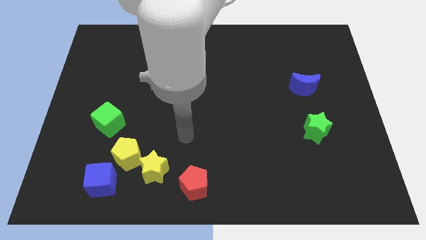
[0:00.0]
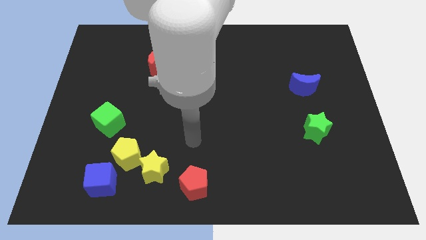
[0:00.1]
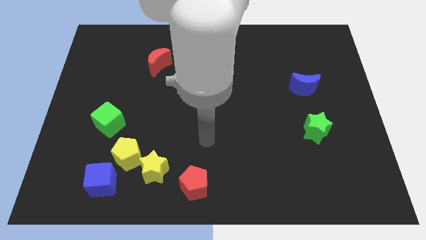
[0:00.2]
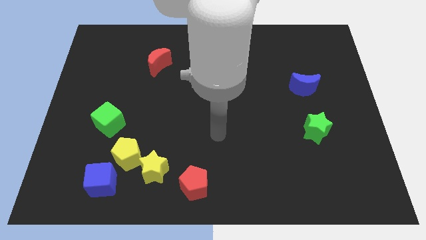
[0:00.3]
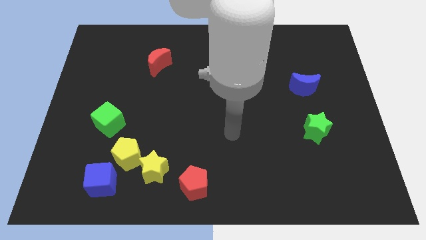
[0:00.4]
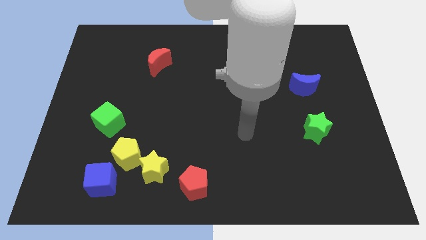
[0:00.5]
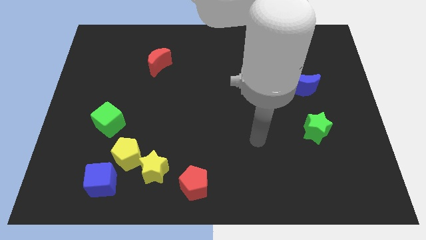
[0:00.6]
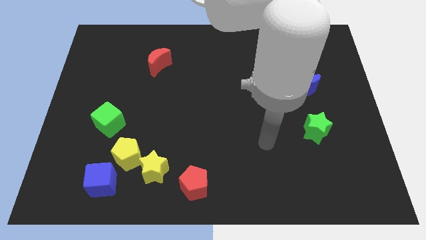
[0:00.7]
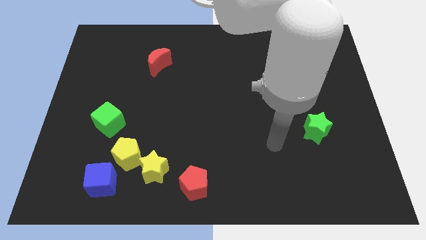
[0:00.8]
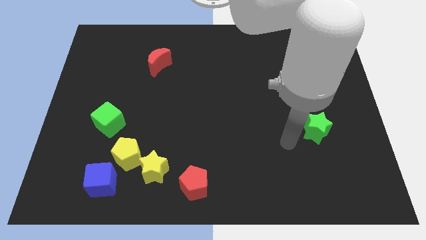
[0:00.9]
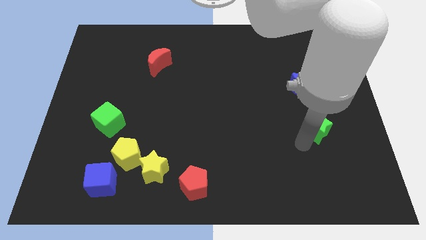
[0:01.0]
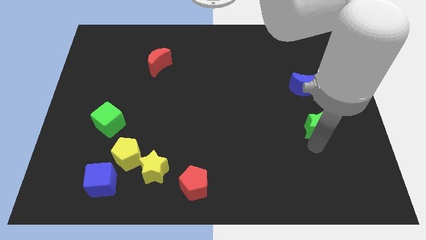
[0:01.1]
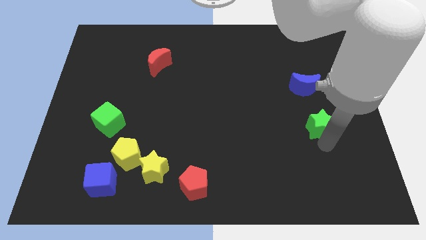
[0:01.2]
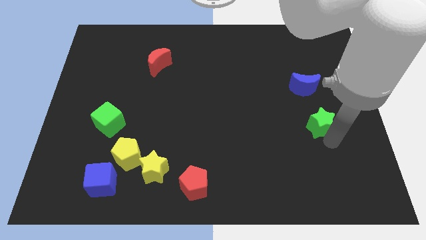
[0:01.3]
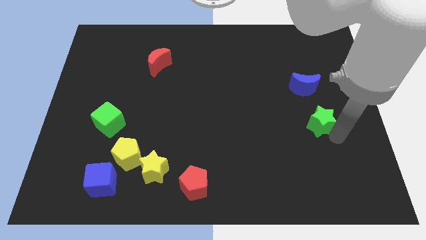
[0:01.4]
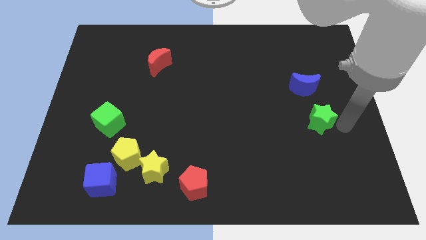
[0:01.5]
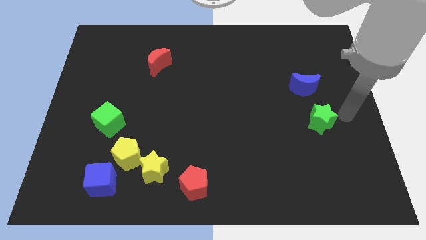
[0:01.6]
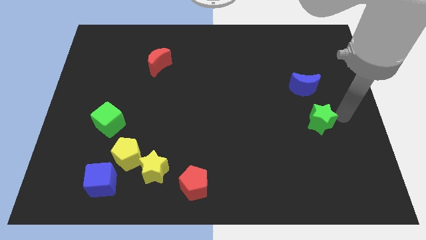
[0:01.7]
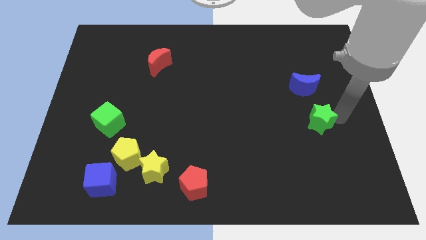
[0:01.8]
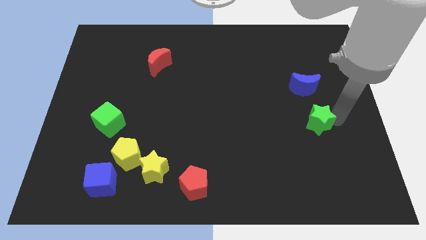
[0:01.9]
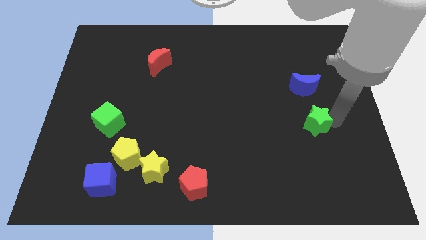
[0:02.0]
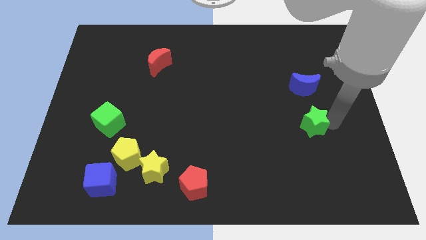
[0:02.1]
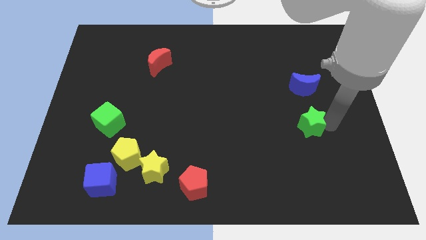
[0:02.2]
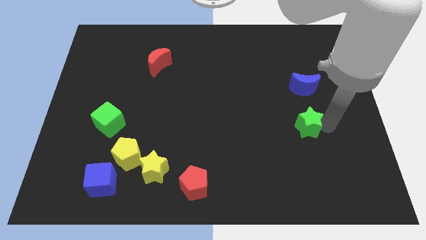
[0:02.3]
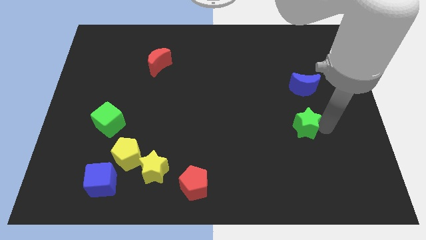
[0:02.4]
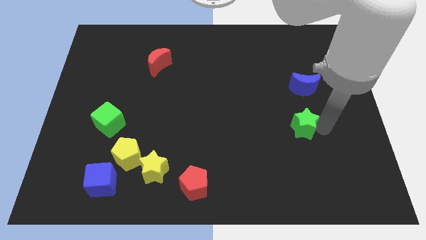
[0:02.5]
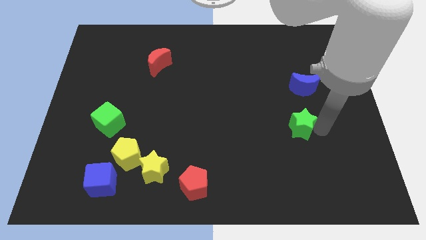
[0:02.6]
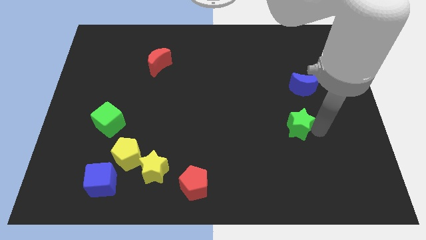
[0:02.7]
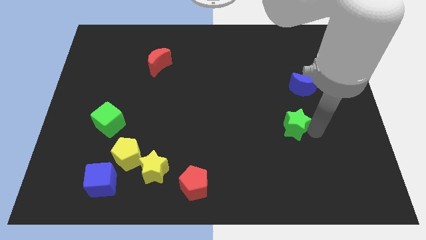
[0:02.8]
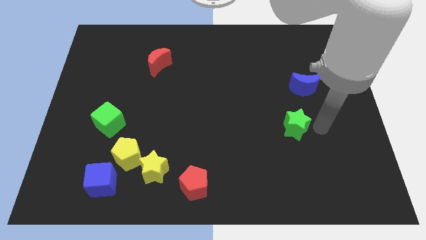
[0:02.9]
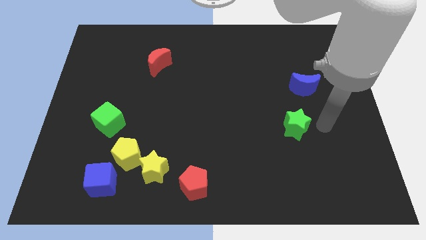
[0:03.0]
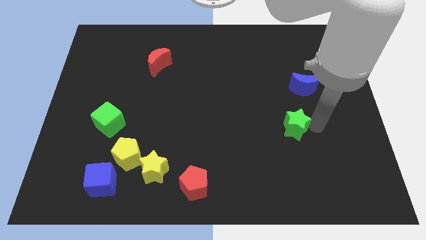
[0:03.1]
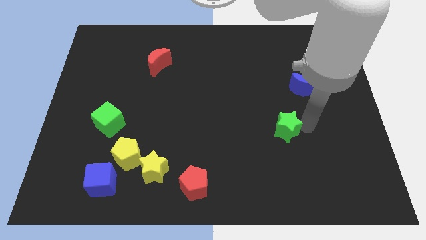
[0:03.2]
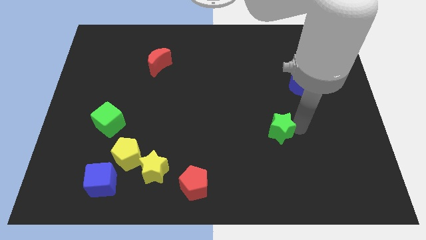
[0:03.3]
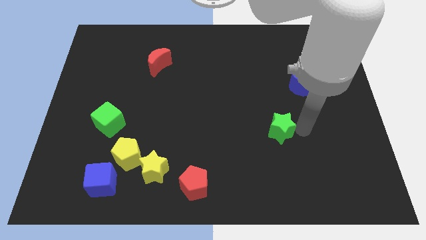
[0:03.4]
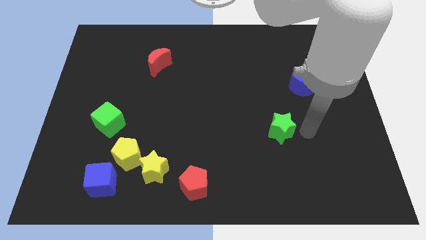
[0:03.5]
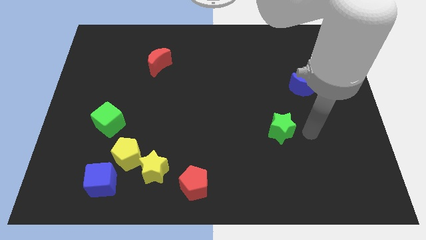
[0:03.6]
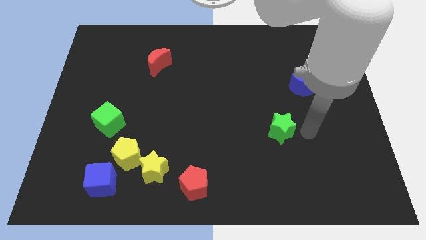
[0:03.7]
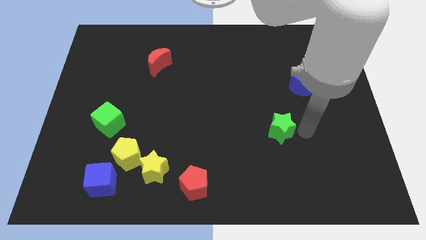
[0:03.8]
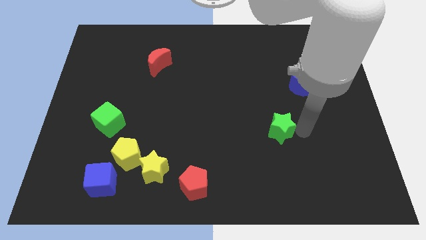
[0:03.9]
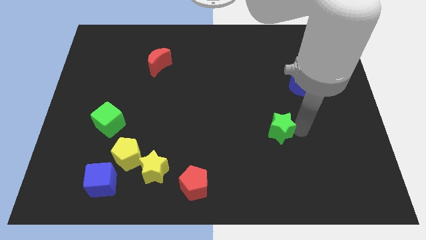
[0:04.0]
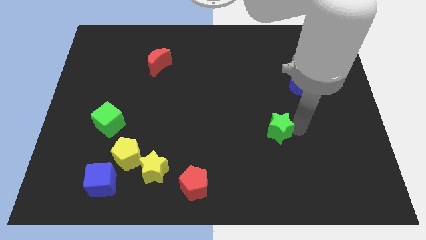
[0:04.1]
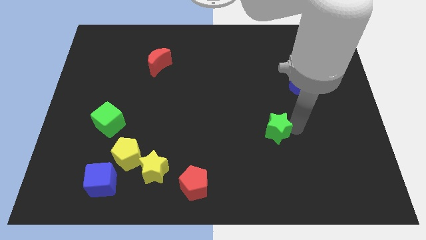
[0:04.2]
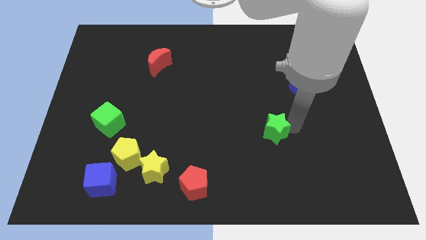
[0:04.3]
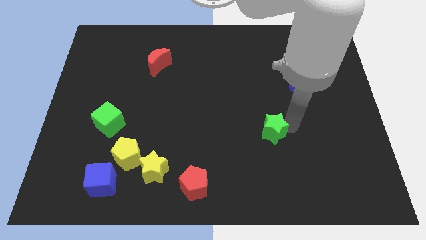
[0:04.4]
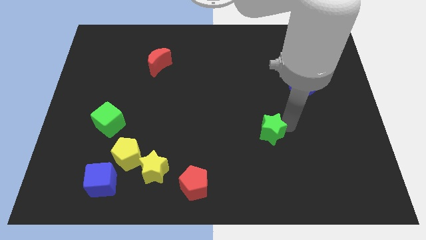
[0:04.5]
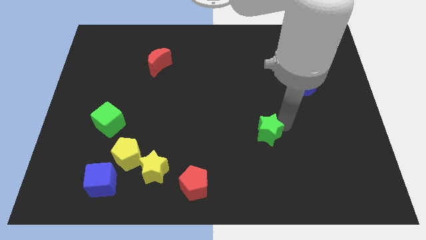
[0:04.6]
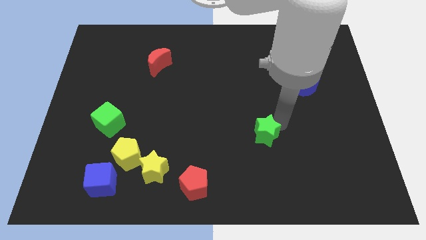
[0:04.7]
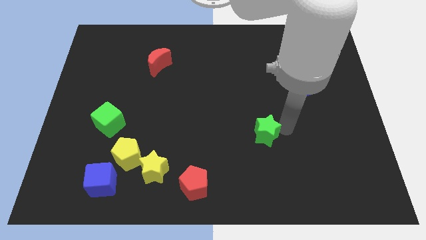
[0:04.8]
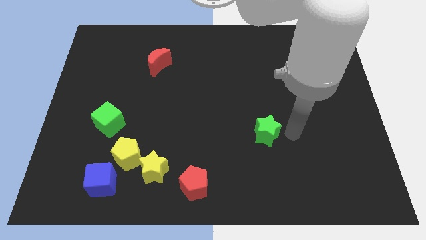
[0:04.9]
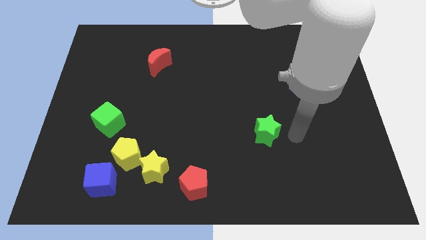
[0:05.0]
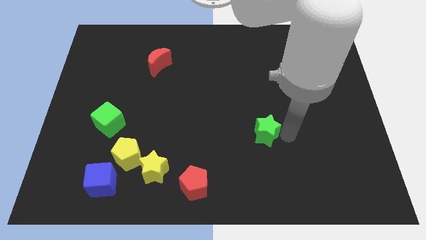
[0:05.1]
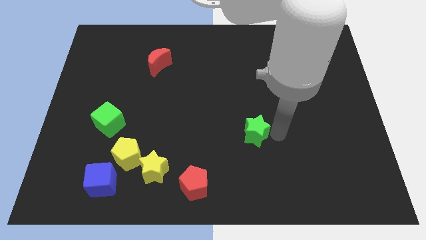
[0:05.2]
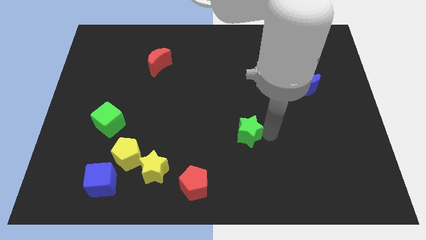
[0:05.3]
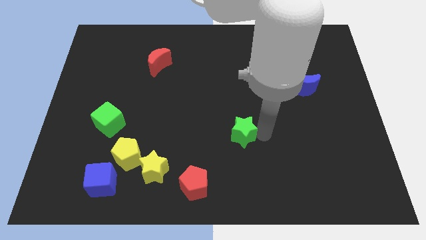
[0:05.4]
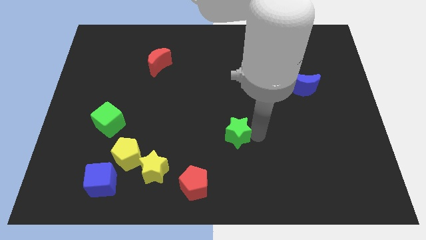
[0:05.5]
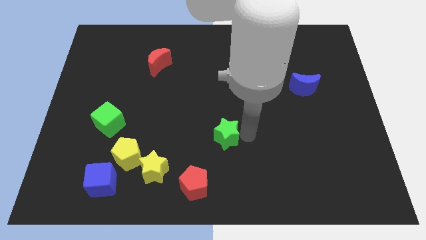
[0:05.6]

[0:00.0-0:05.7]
slide the green star left

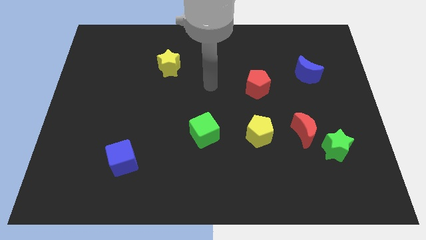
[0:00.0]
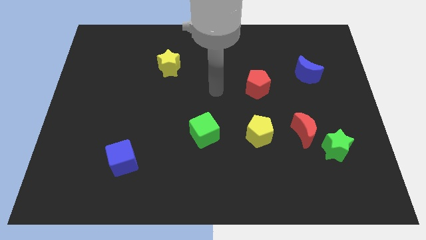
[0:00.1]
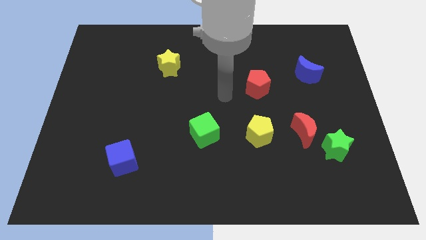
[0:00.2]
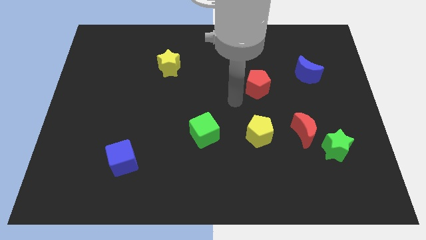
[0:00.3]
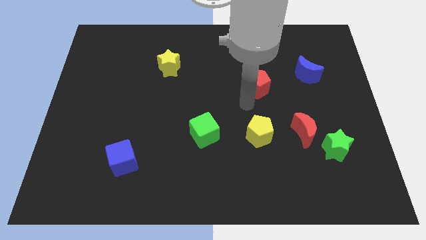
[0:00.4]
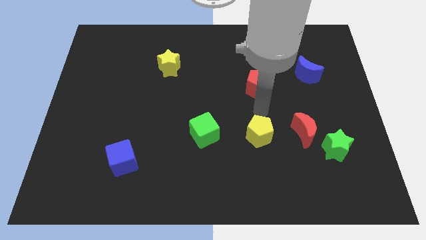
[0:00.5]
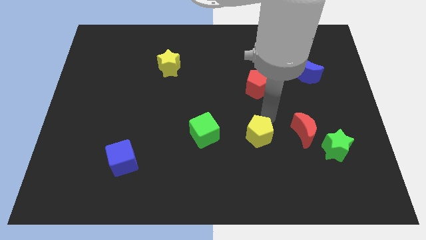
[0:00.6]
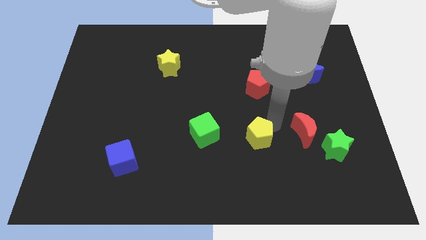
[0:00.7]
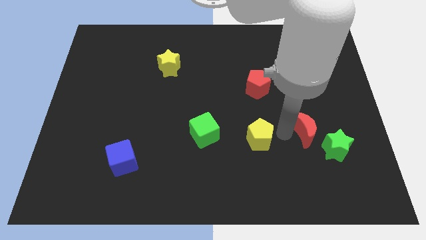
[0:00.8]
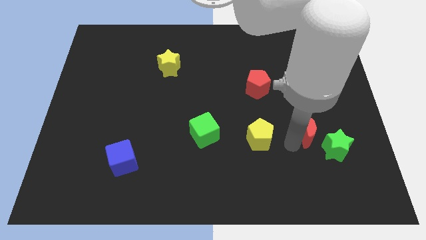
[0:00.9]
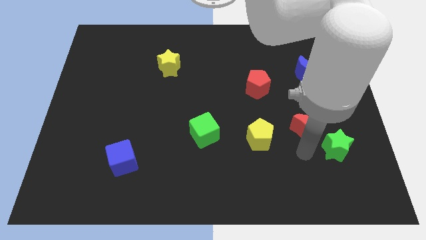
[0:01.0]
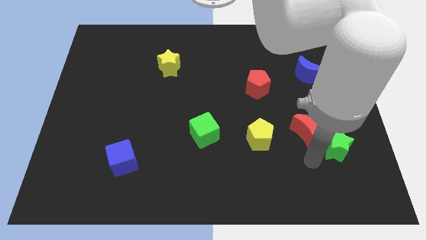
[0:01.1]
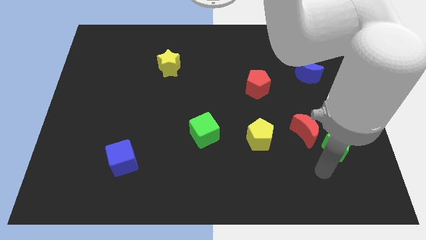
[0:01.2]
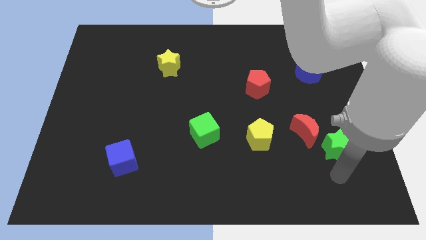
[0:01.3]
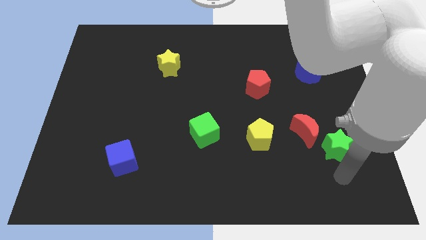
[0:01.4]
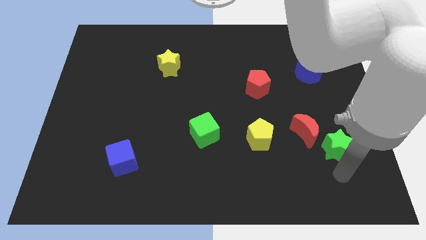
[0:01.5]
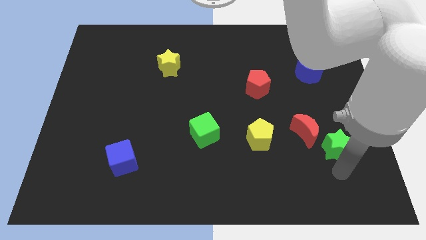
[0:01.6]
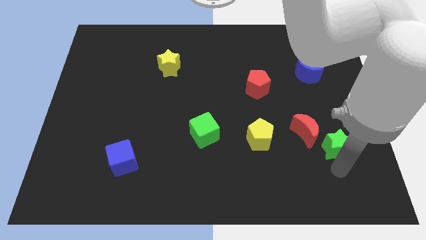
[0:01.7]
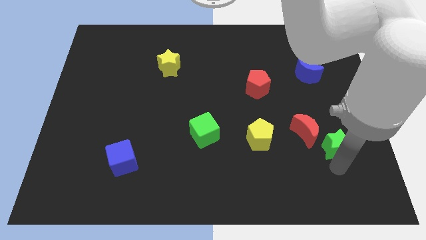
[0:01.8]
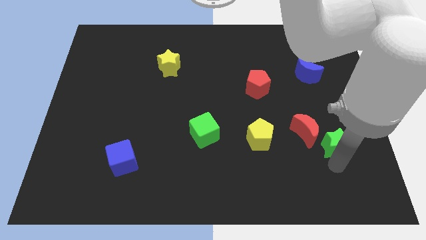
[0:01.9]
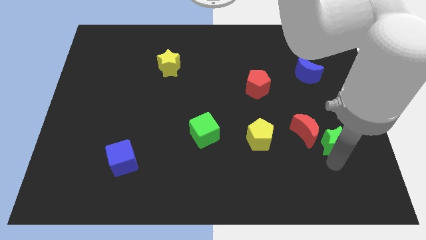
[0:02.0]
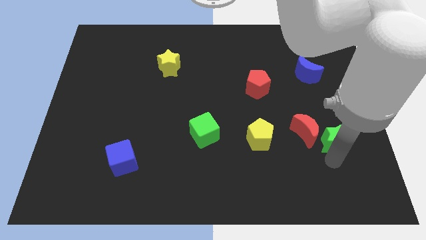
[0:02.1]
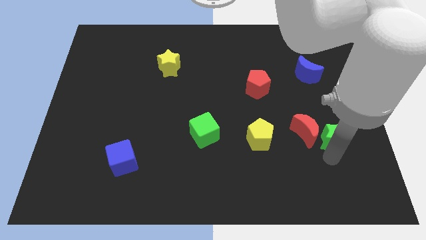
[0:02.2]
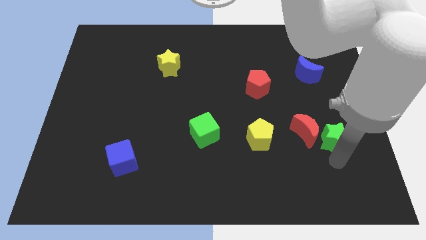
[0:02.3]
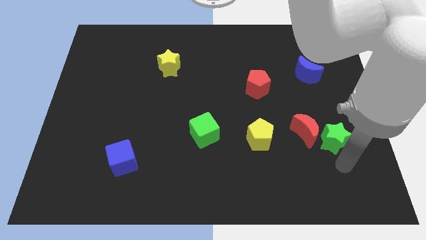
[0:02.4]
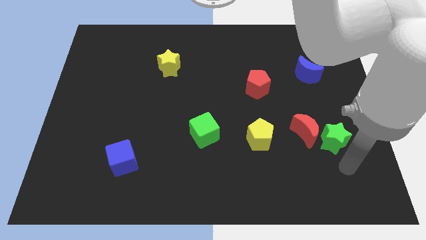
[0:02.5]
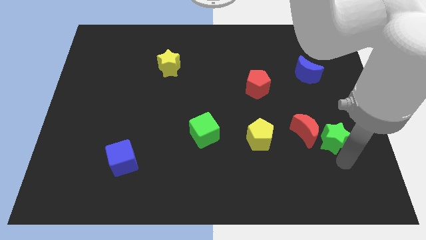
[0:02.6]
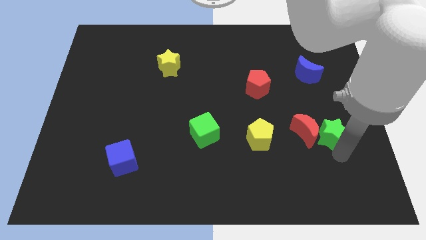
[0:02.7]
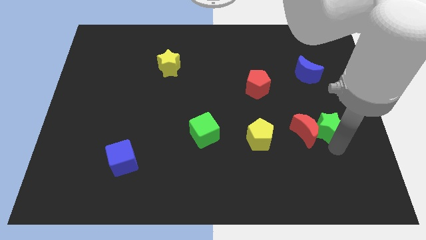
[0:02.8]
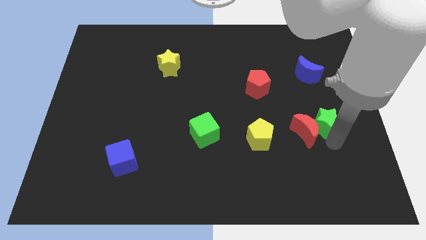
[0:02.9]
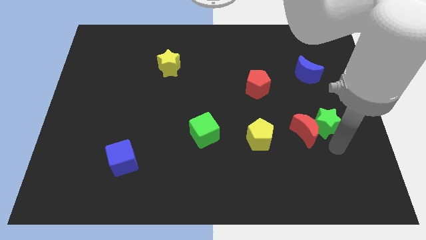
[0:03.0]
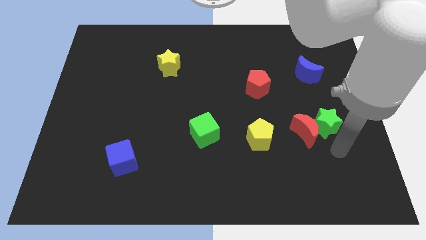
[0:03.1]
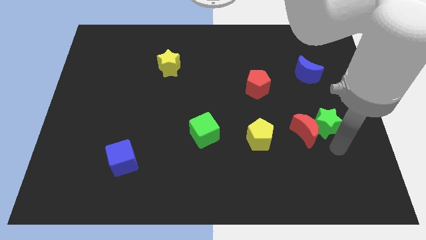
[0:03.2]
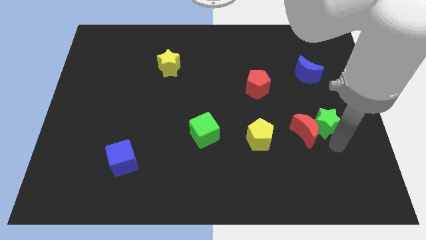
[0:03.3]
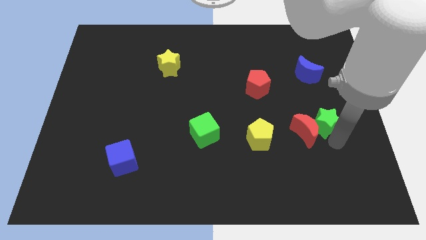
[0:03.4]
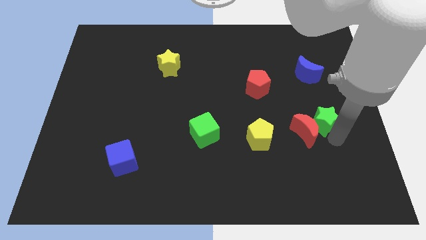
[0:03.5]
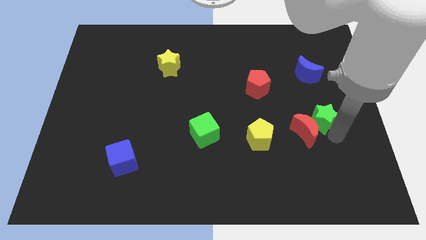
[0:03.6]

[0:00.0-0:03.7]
move the green star upwards somewhat
